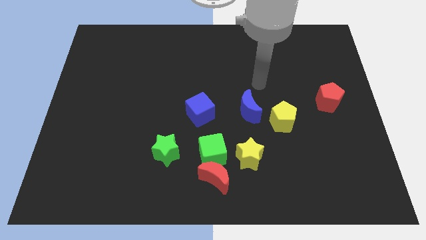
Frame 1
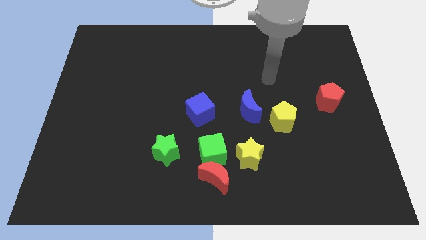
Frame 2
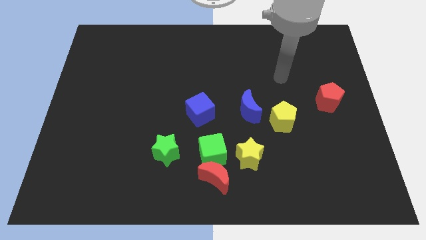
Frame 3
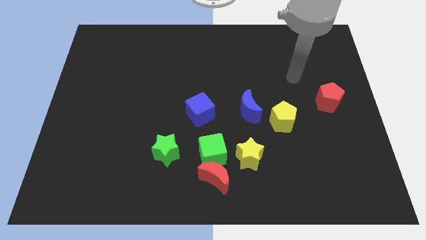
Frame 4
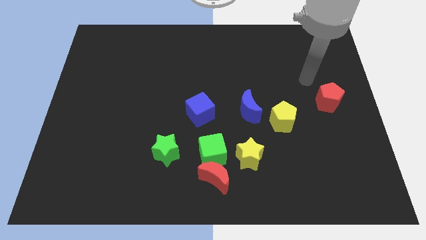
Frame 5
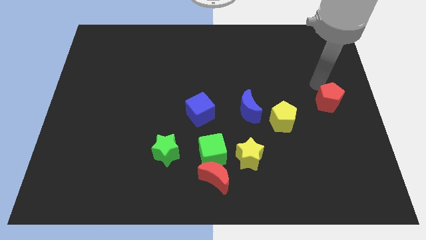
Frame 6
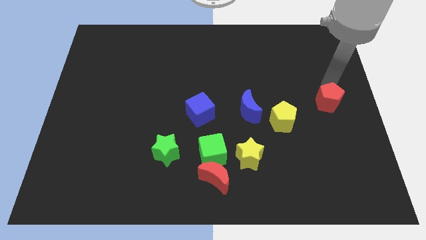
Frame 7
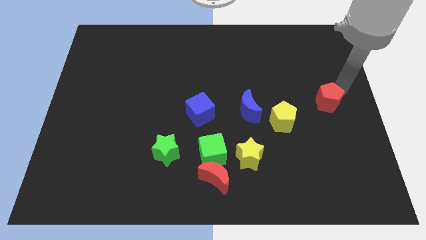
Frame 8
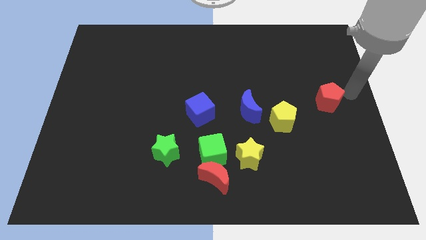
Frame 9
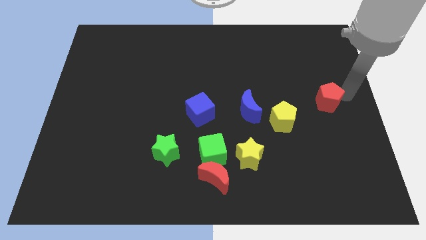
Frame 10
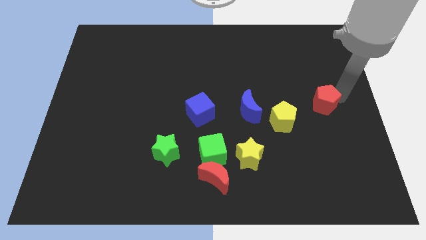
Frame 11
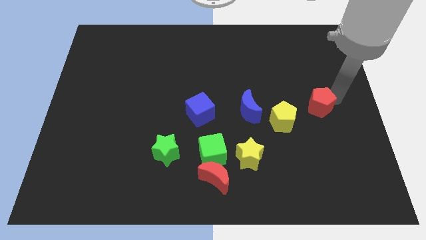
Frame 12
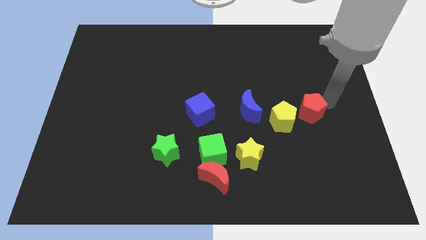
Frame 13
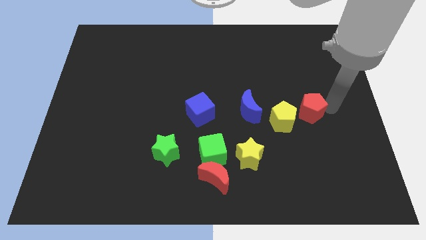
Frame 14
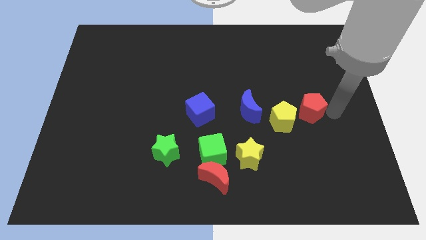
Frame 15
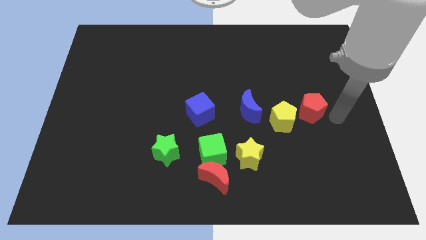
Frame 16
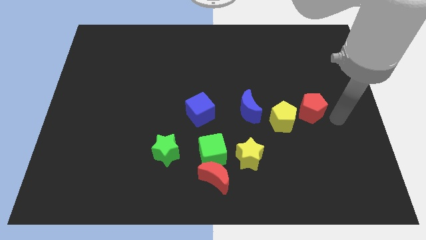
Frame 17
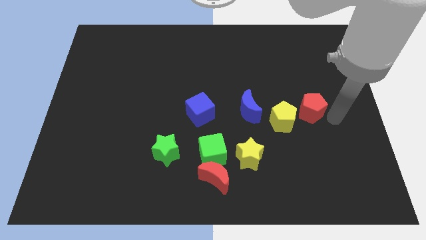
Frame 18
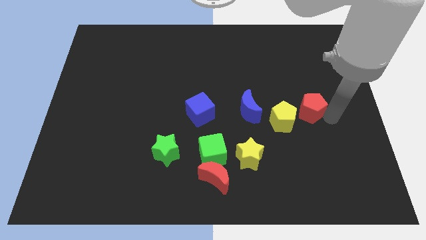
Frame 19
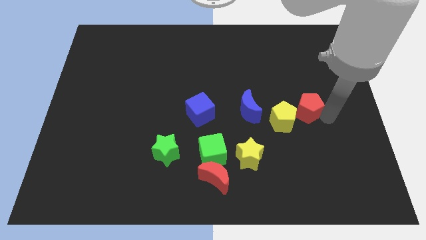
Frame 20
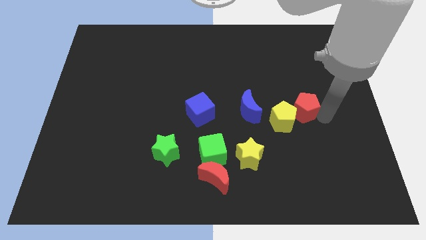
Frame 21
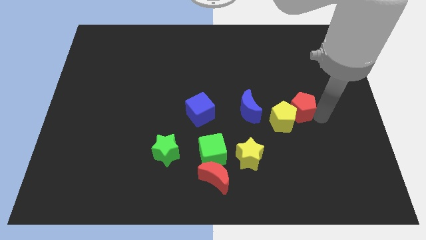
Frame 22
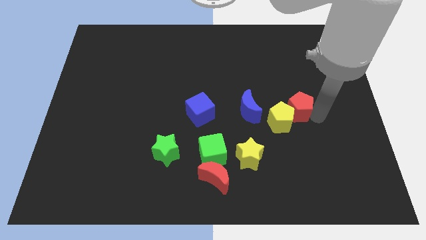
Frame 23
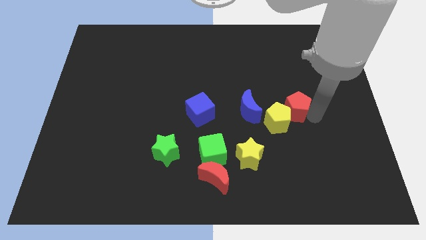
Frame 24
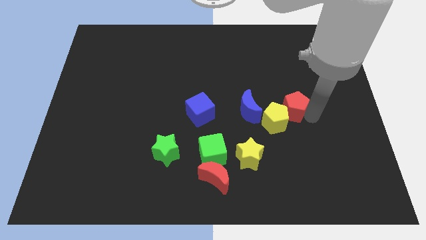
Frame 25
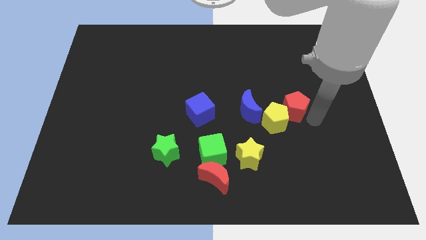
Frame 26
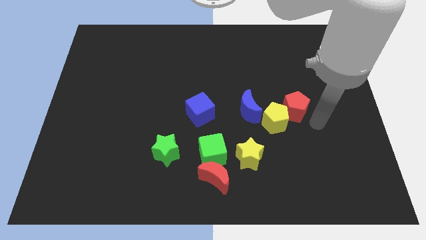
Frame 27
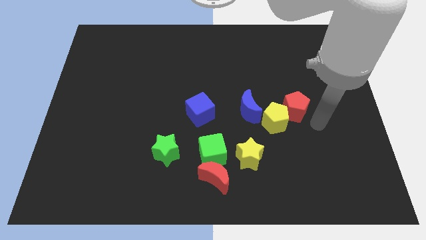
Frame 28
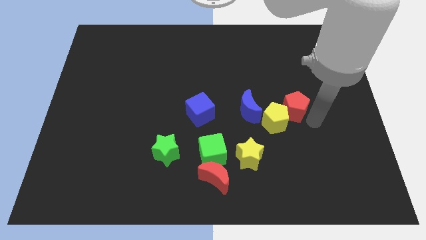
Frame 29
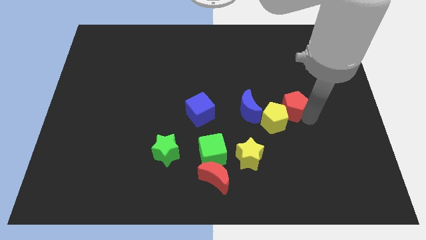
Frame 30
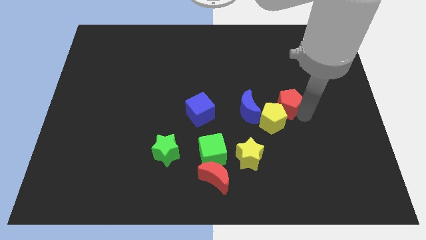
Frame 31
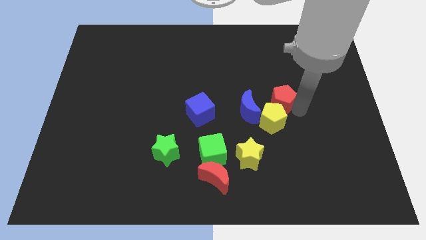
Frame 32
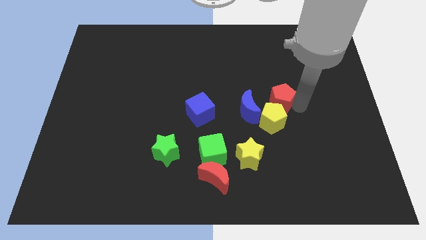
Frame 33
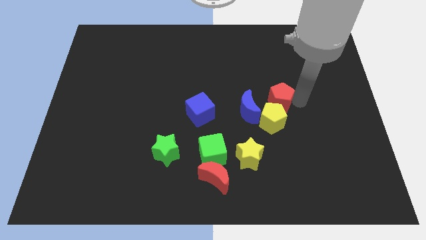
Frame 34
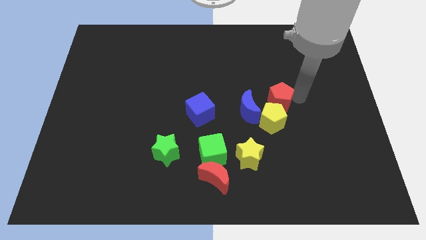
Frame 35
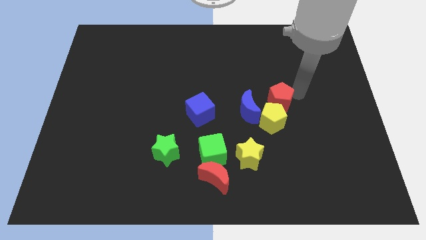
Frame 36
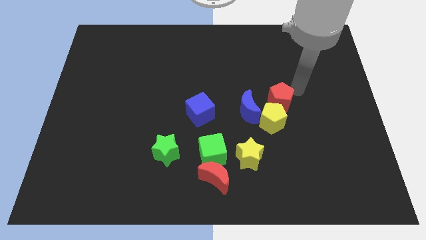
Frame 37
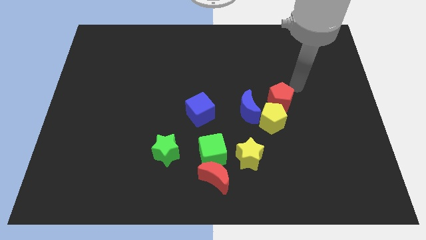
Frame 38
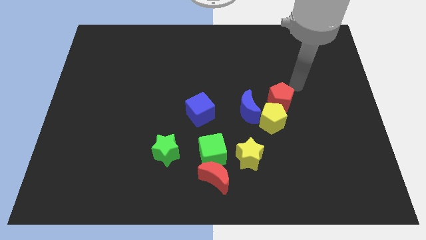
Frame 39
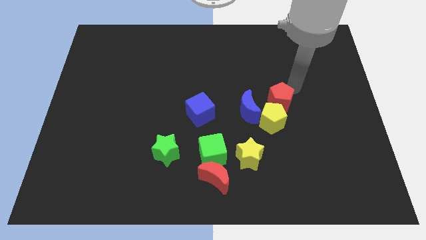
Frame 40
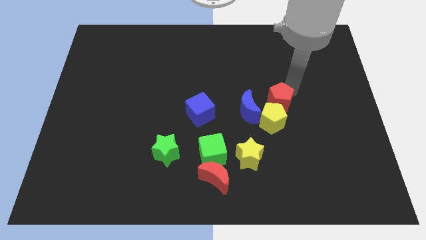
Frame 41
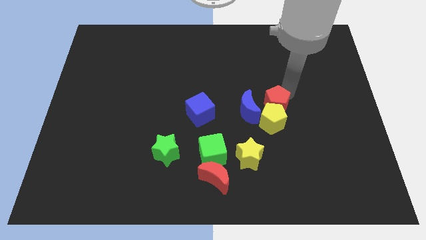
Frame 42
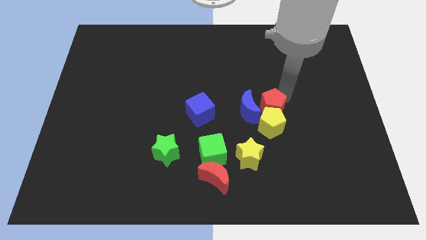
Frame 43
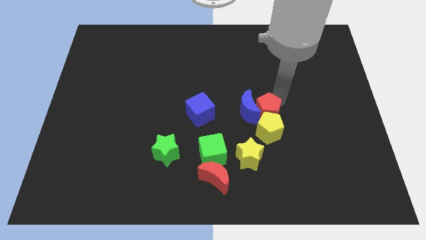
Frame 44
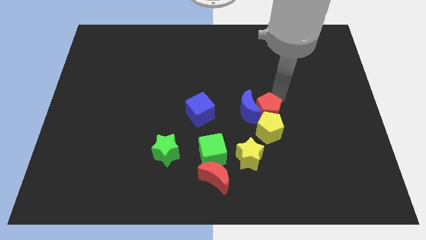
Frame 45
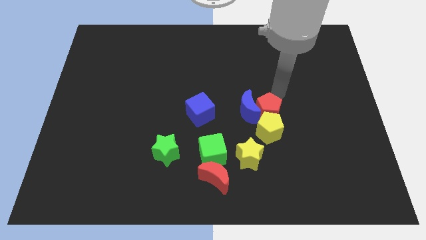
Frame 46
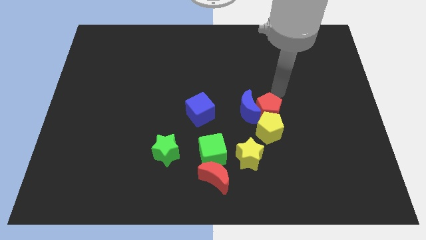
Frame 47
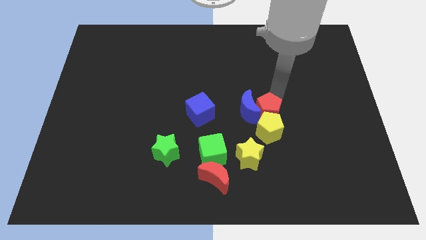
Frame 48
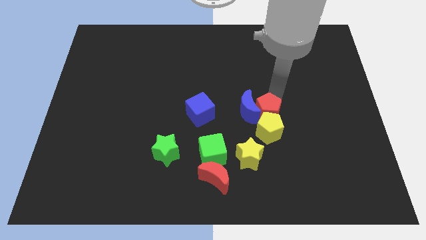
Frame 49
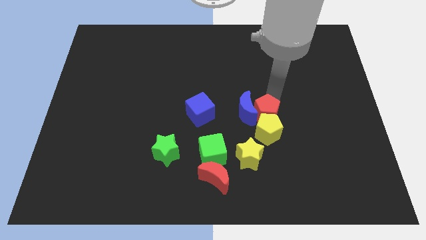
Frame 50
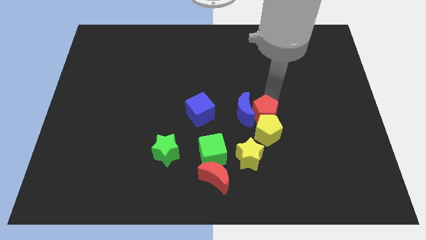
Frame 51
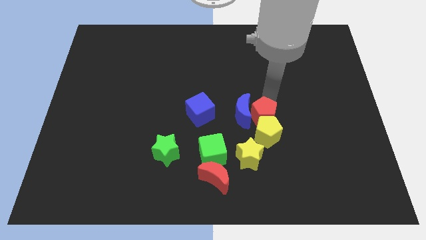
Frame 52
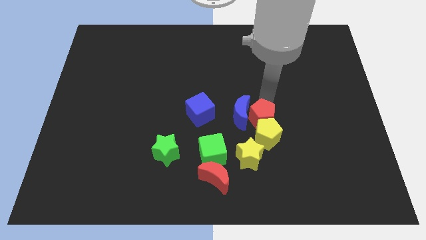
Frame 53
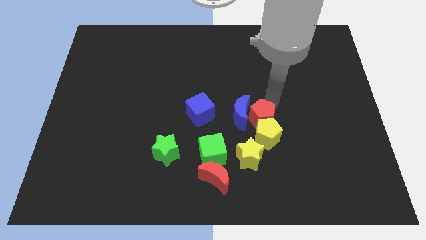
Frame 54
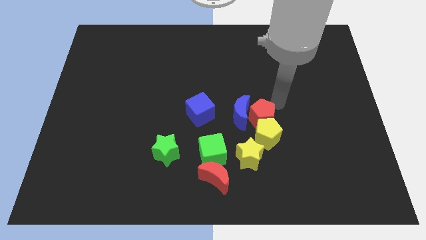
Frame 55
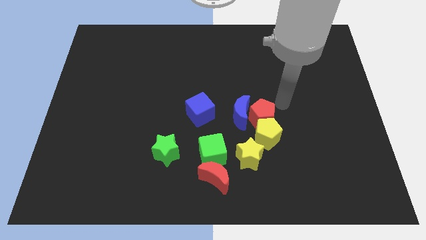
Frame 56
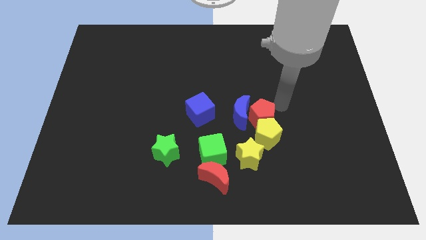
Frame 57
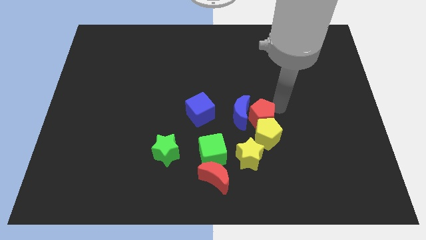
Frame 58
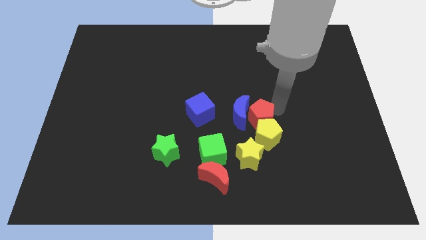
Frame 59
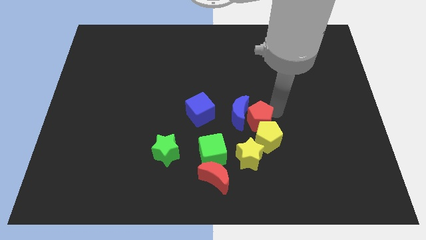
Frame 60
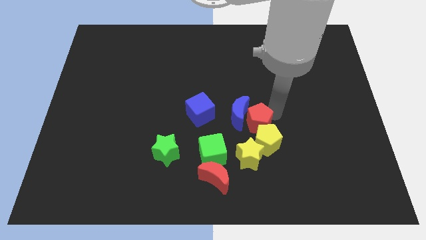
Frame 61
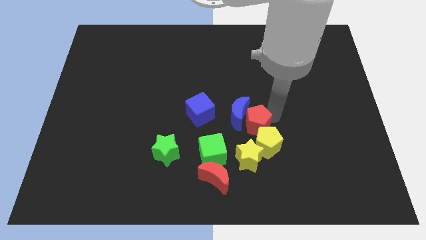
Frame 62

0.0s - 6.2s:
move the red pentagon diagonally up and to the right of the green cube

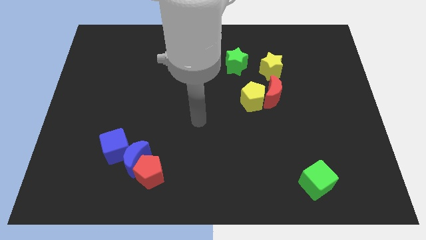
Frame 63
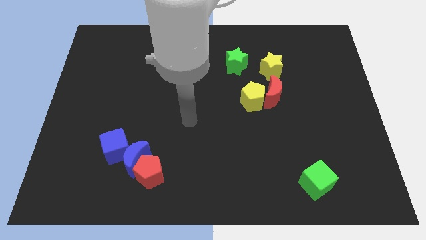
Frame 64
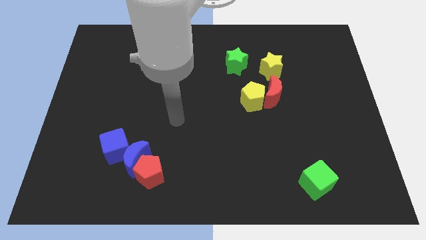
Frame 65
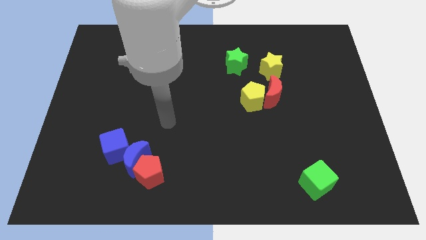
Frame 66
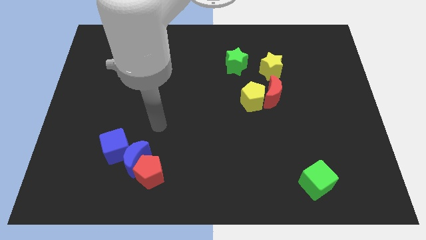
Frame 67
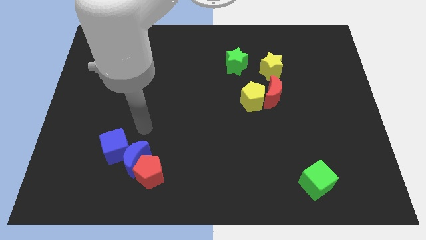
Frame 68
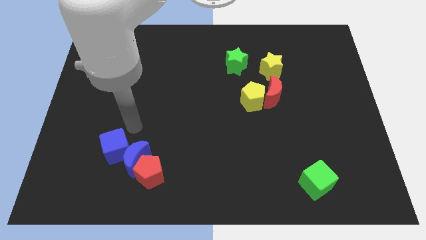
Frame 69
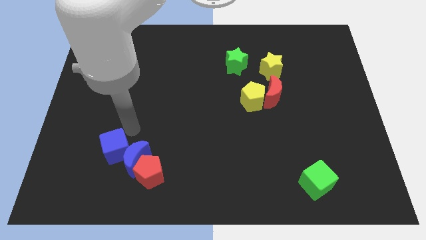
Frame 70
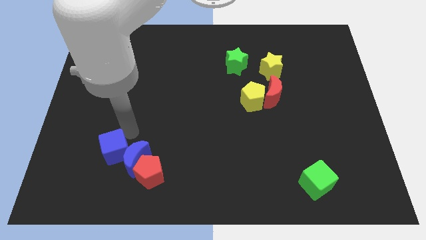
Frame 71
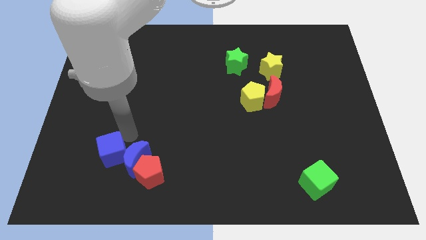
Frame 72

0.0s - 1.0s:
push the blue cube to the left side of the red pentagon
